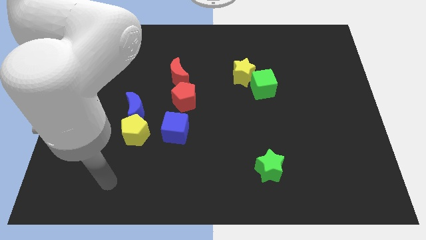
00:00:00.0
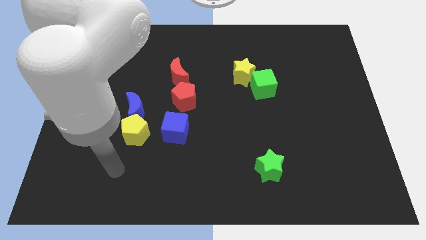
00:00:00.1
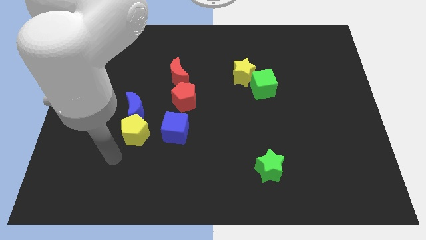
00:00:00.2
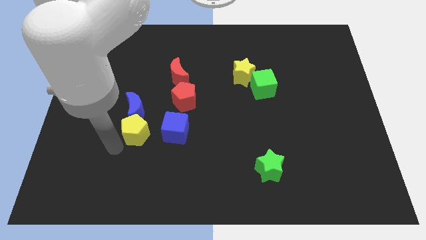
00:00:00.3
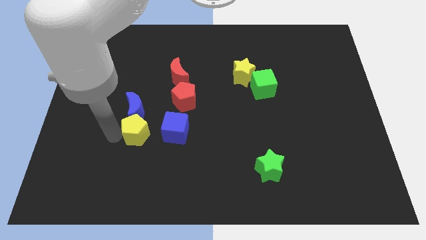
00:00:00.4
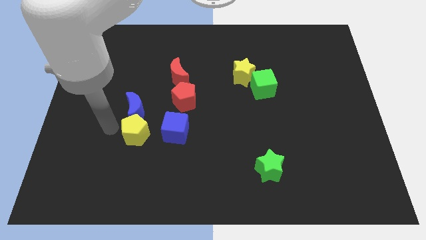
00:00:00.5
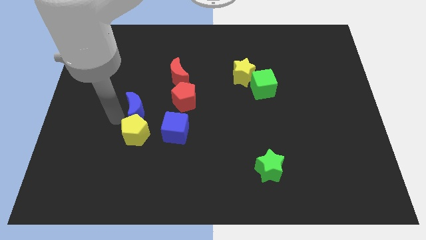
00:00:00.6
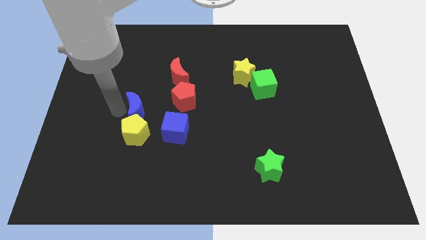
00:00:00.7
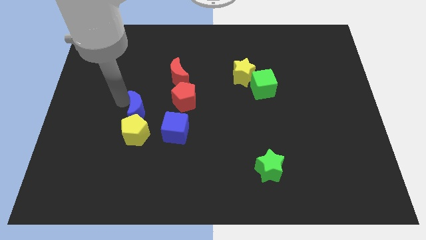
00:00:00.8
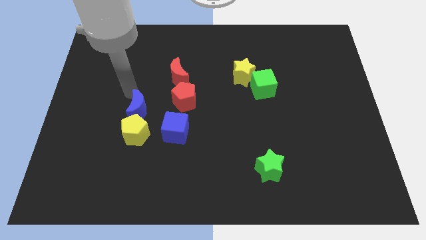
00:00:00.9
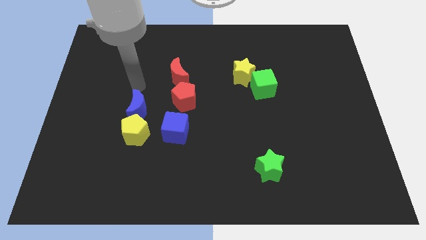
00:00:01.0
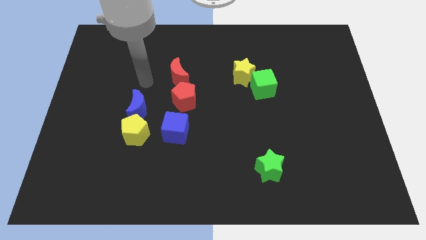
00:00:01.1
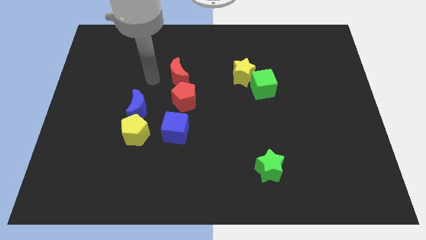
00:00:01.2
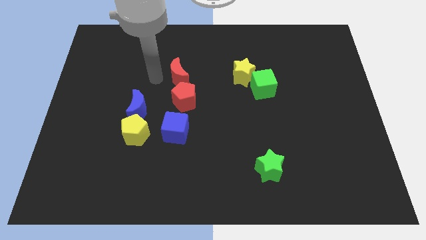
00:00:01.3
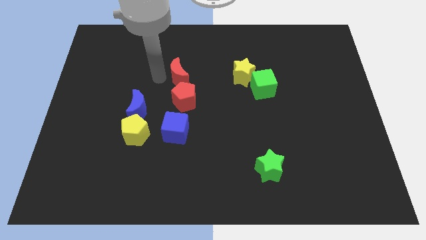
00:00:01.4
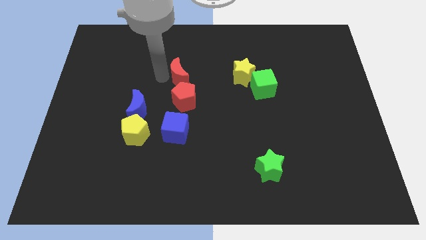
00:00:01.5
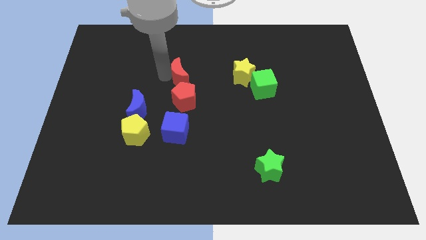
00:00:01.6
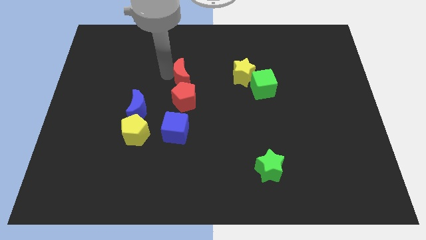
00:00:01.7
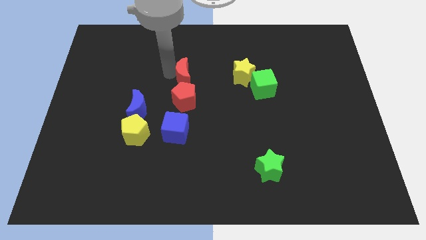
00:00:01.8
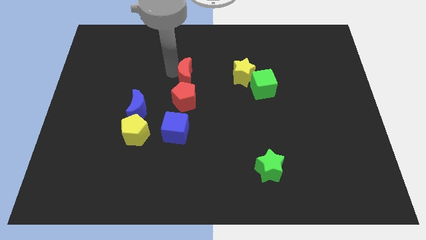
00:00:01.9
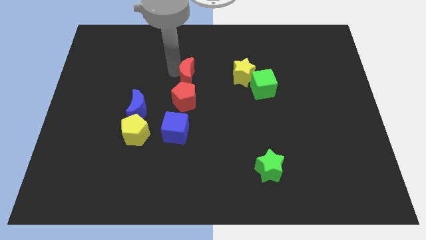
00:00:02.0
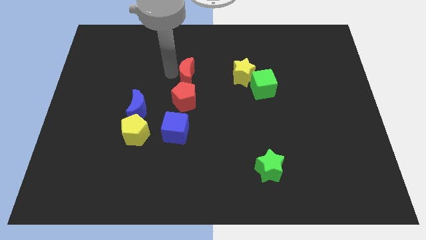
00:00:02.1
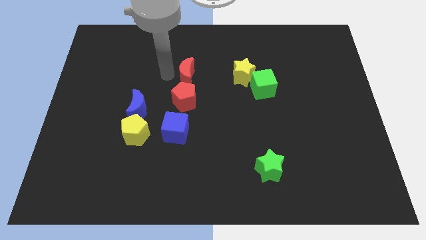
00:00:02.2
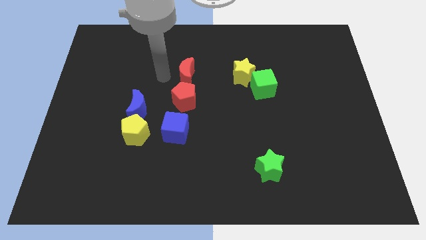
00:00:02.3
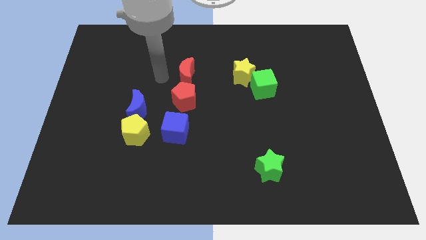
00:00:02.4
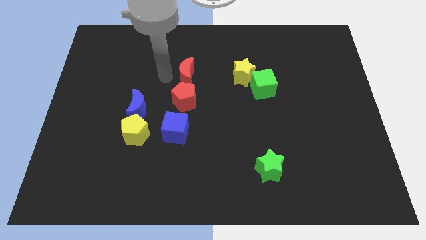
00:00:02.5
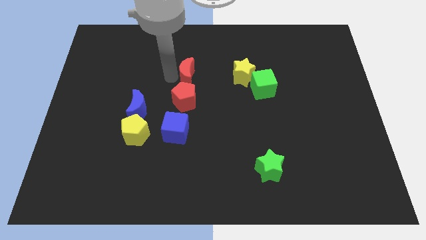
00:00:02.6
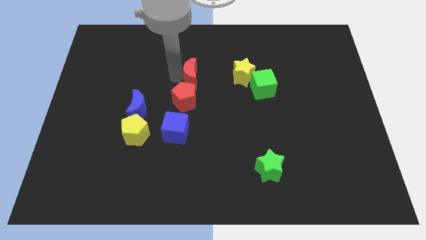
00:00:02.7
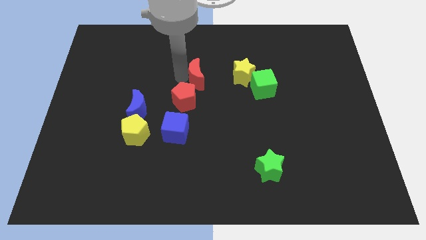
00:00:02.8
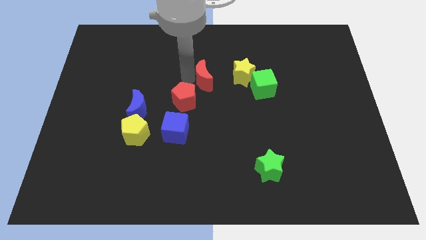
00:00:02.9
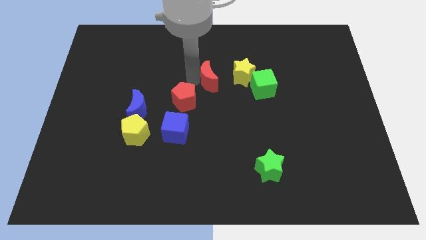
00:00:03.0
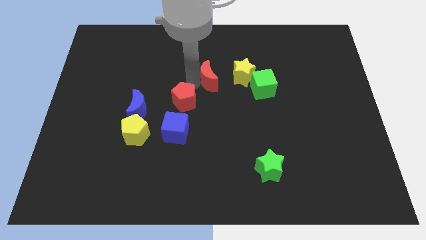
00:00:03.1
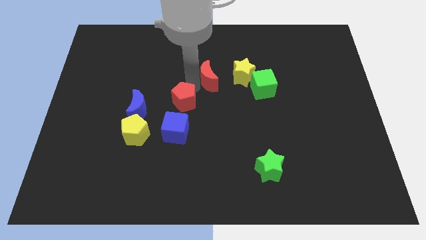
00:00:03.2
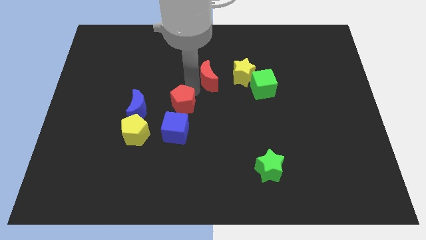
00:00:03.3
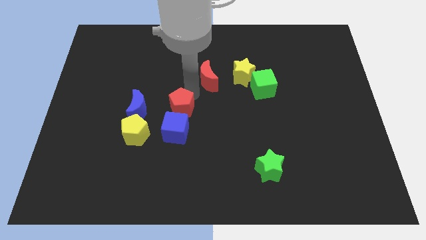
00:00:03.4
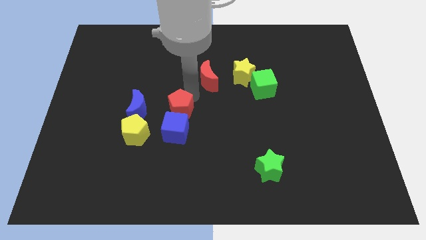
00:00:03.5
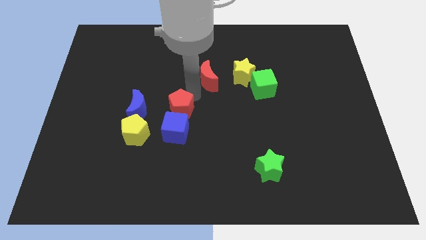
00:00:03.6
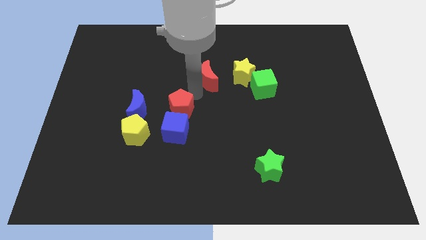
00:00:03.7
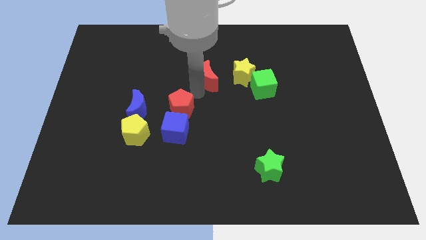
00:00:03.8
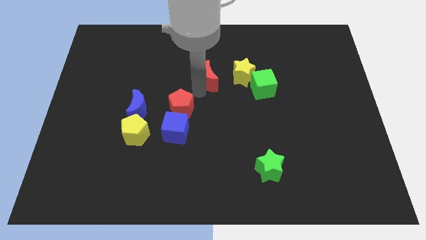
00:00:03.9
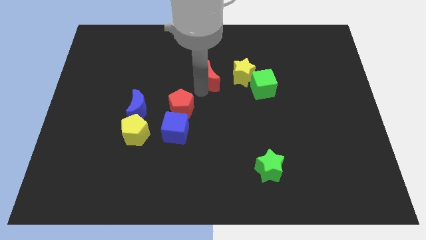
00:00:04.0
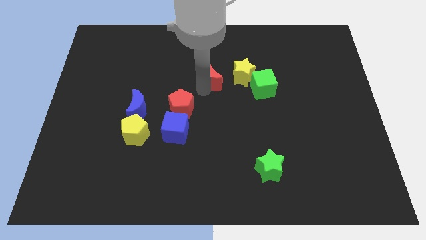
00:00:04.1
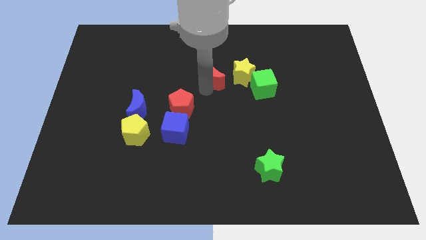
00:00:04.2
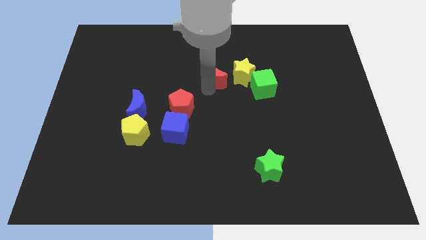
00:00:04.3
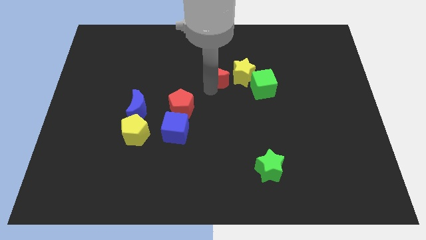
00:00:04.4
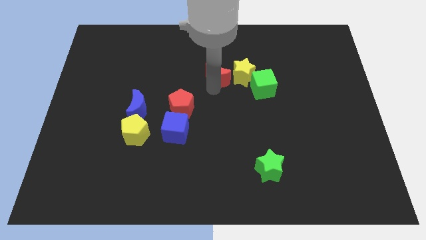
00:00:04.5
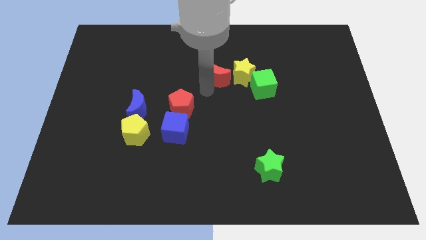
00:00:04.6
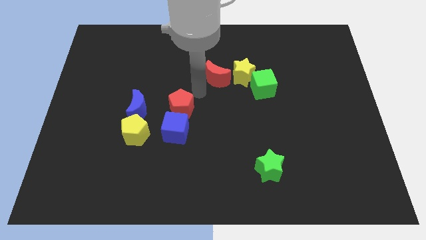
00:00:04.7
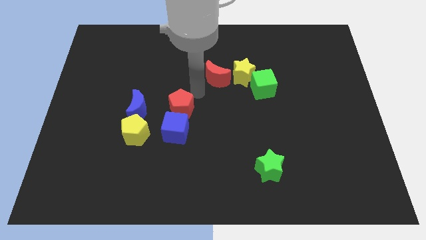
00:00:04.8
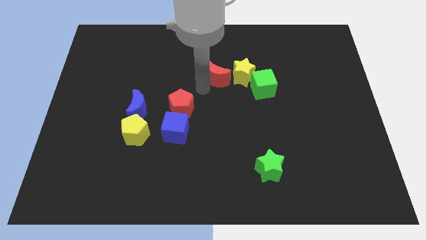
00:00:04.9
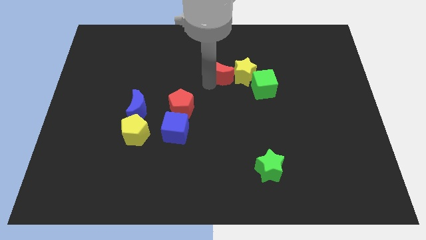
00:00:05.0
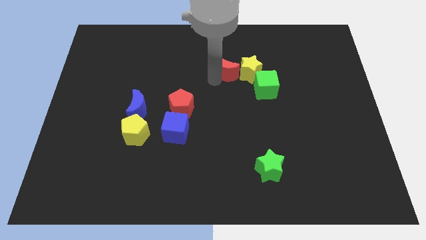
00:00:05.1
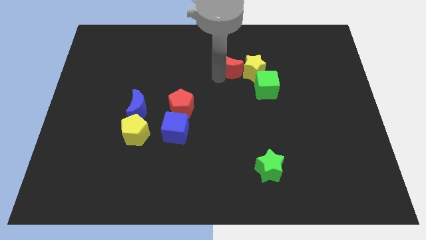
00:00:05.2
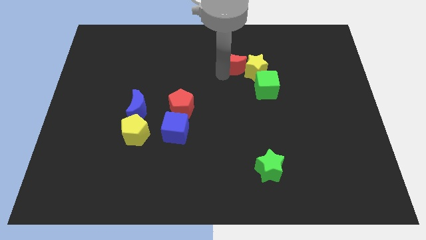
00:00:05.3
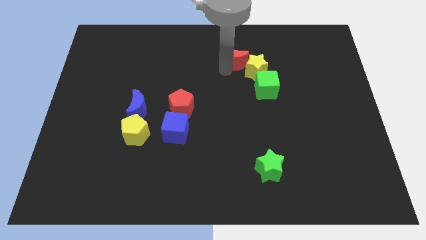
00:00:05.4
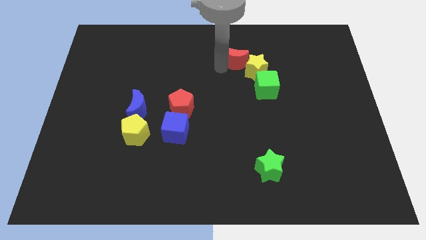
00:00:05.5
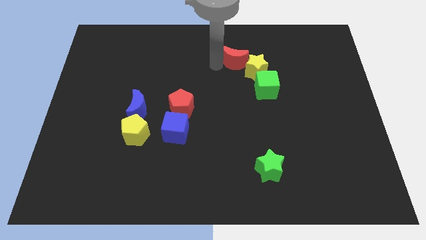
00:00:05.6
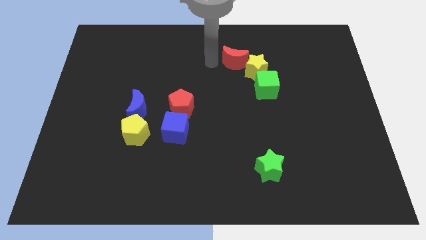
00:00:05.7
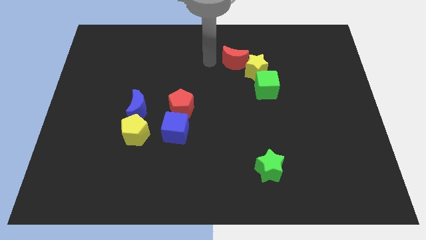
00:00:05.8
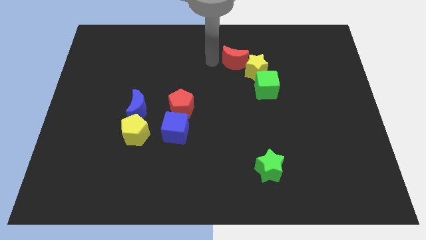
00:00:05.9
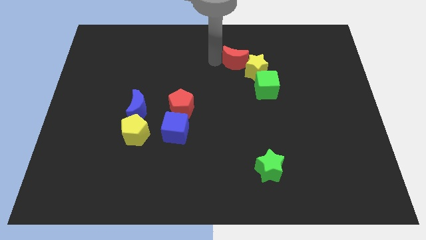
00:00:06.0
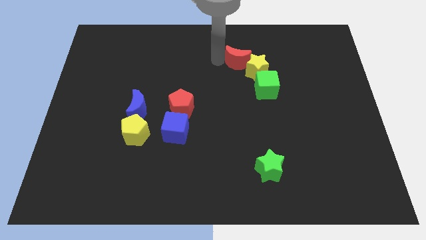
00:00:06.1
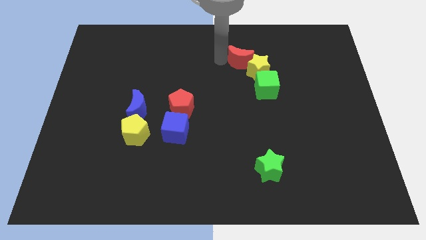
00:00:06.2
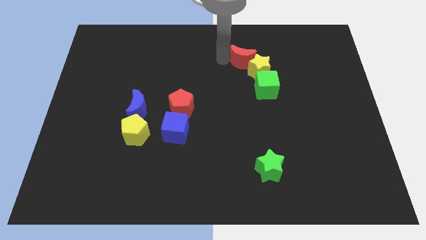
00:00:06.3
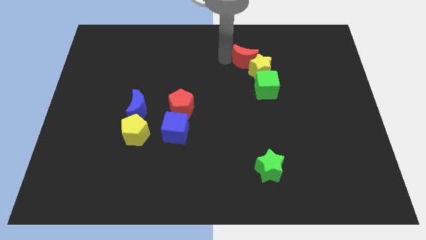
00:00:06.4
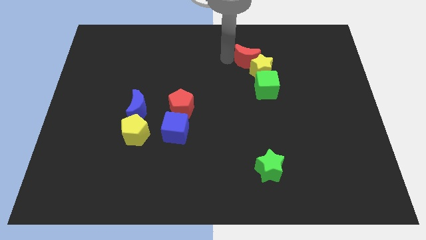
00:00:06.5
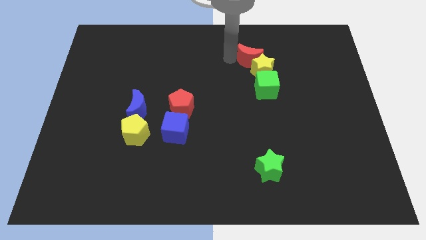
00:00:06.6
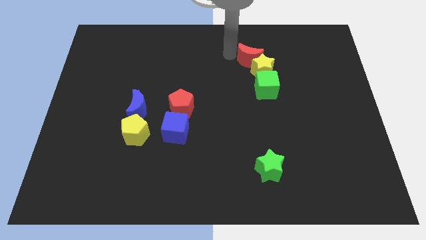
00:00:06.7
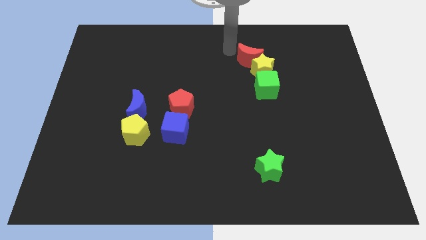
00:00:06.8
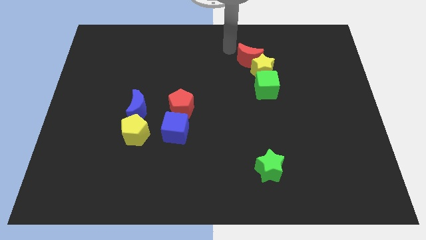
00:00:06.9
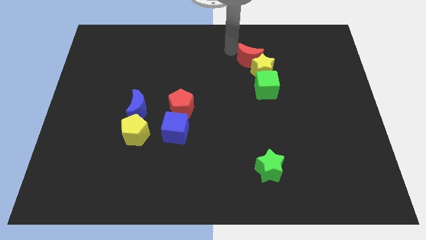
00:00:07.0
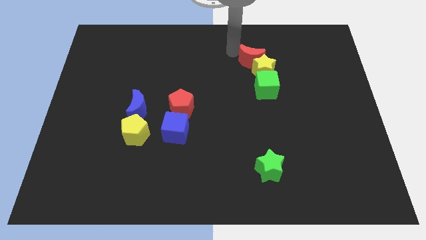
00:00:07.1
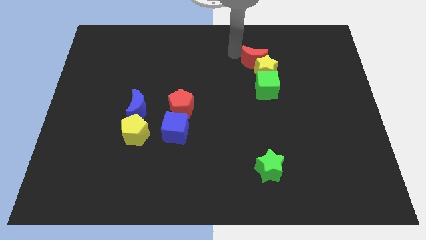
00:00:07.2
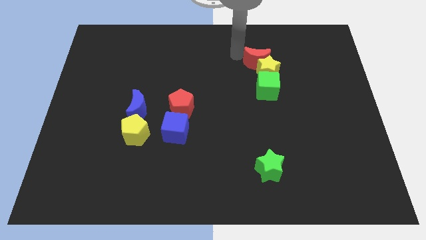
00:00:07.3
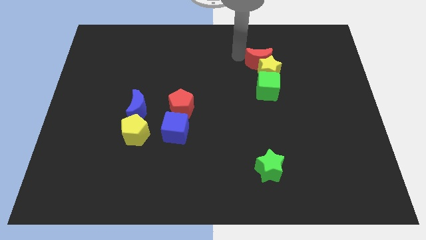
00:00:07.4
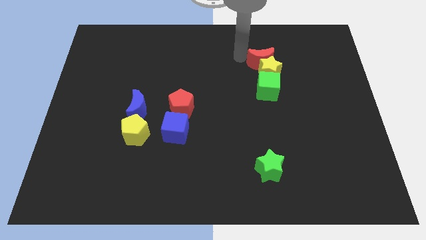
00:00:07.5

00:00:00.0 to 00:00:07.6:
push the red moon right

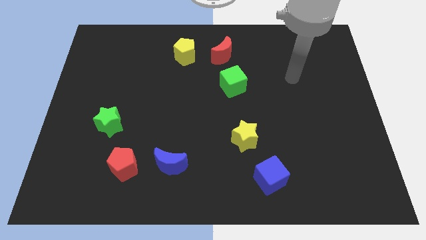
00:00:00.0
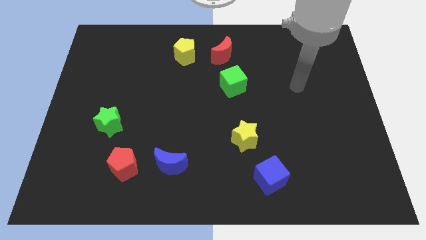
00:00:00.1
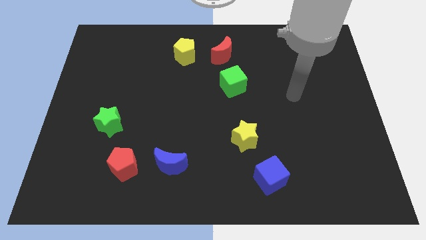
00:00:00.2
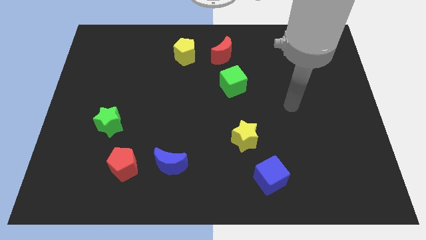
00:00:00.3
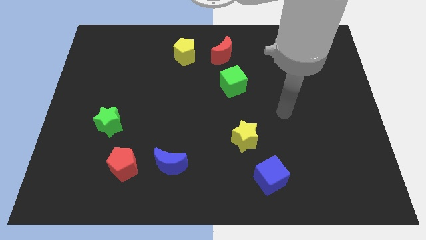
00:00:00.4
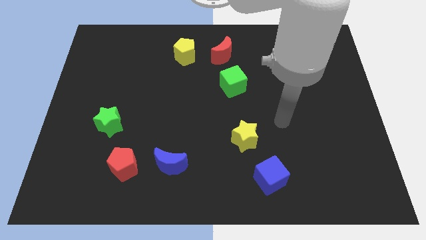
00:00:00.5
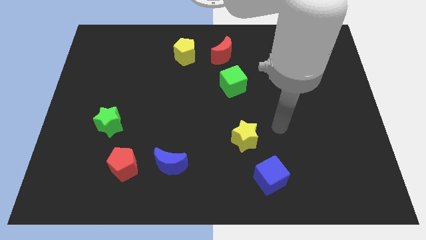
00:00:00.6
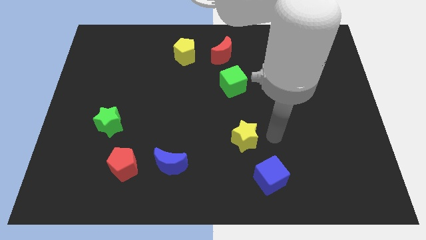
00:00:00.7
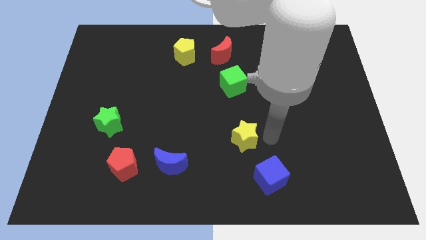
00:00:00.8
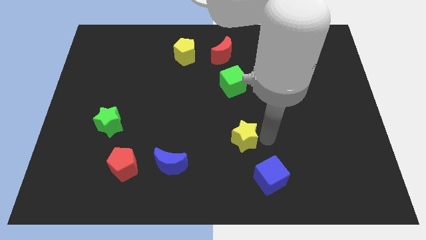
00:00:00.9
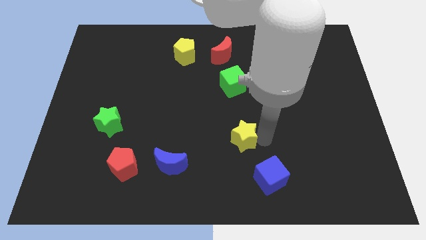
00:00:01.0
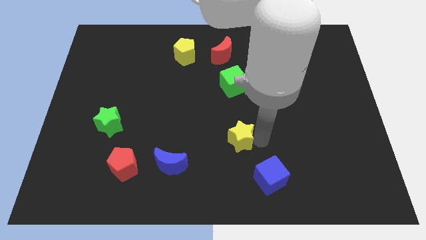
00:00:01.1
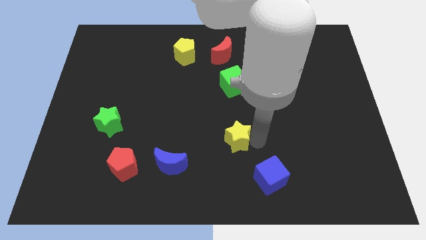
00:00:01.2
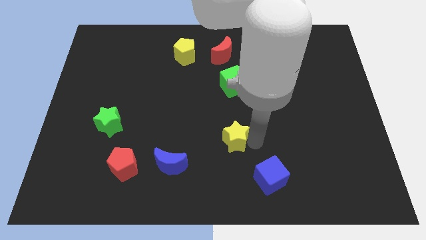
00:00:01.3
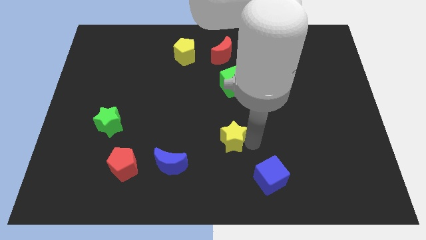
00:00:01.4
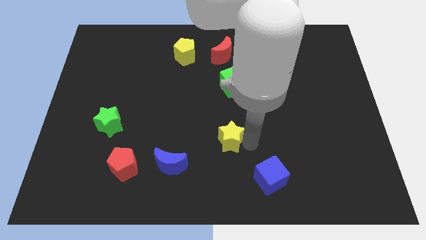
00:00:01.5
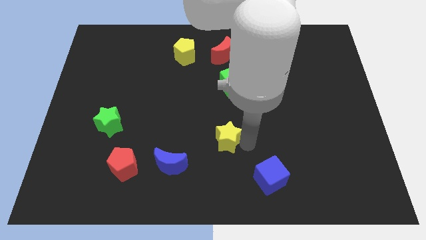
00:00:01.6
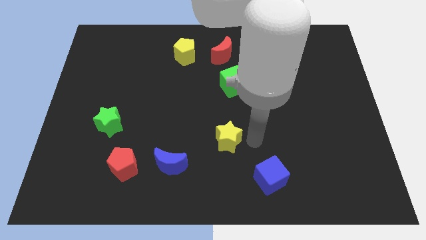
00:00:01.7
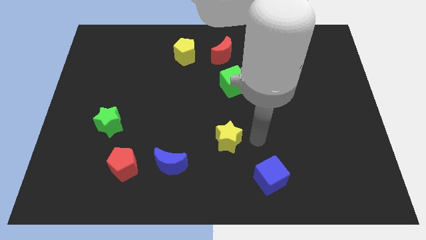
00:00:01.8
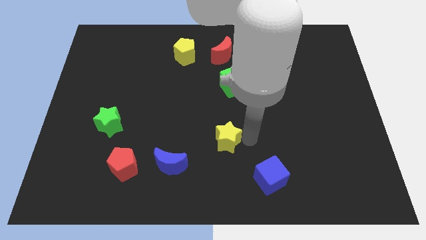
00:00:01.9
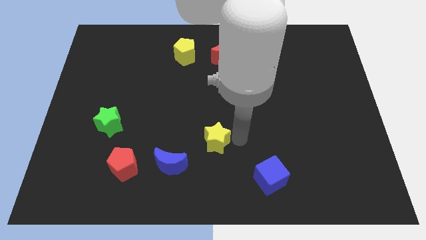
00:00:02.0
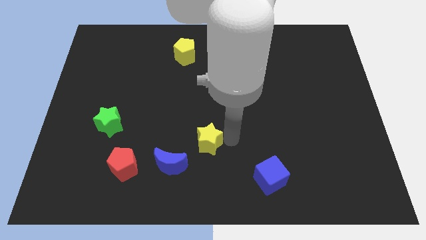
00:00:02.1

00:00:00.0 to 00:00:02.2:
slightly move the yellow star to the left
